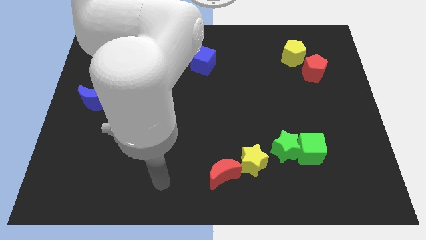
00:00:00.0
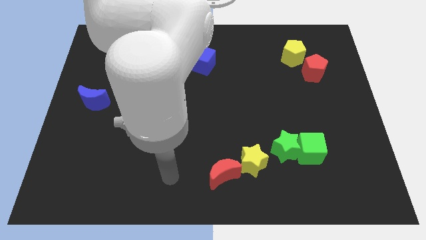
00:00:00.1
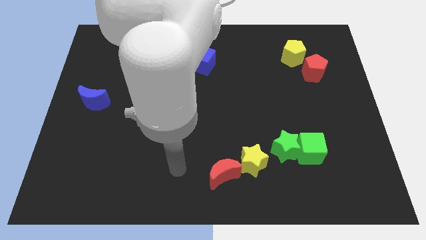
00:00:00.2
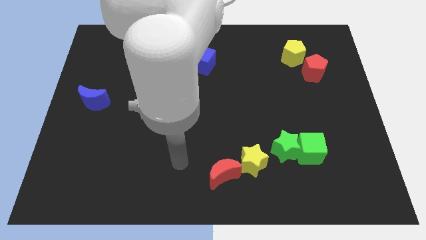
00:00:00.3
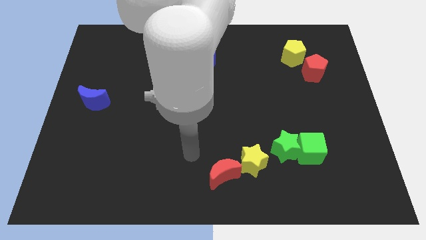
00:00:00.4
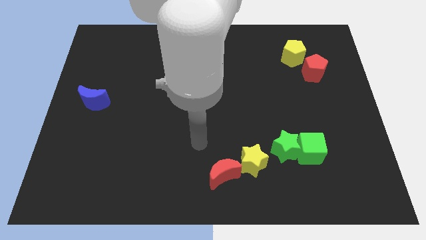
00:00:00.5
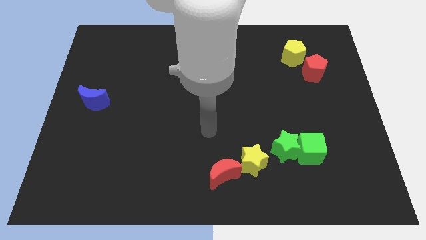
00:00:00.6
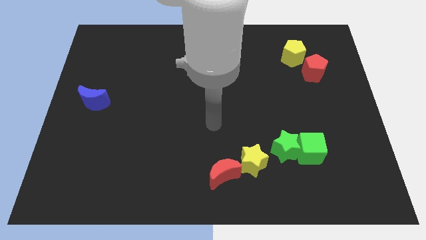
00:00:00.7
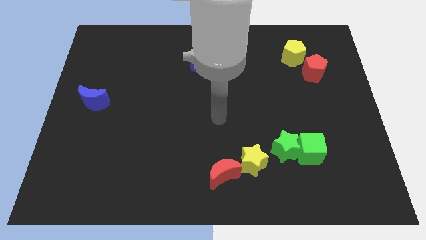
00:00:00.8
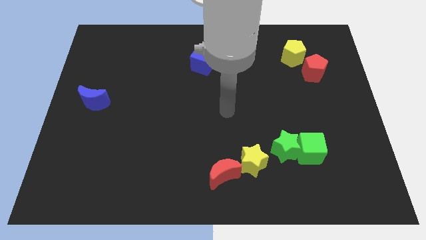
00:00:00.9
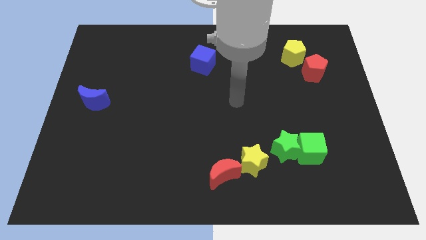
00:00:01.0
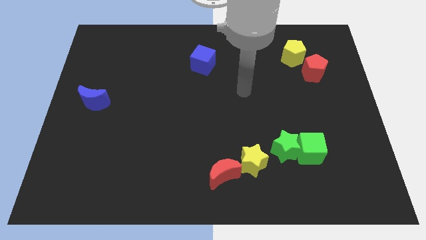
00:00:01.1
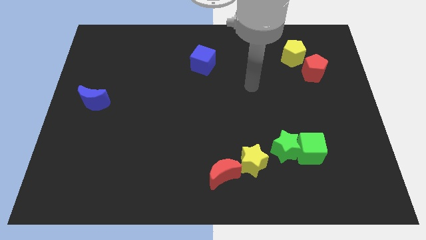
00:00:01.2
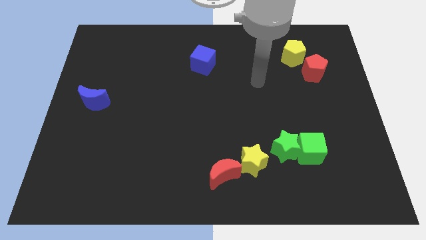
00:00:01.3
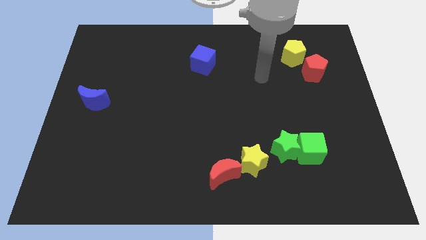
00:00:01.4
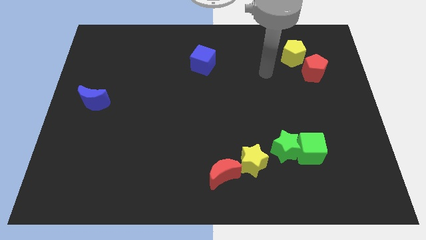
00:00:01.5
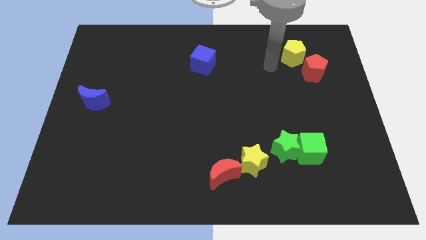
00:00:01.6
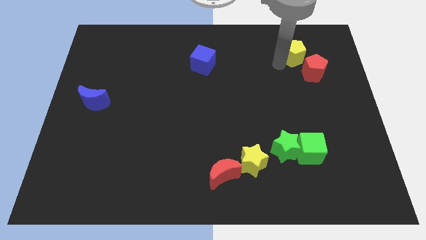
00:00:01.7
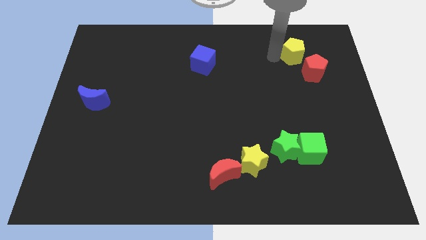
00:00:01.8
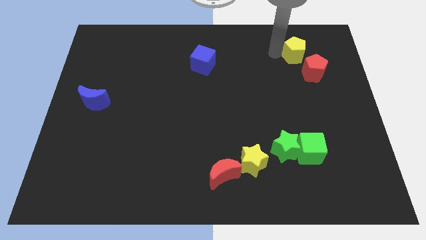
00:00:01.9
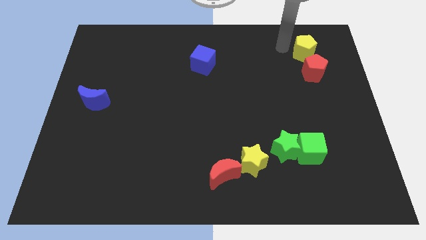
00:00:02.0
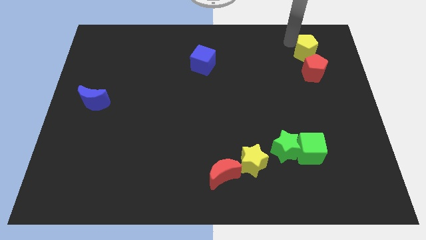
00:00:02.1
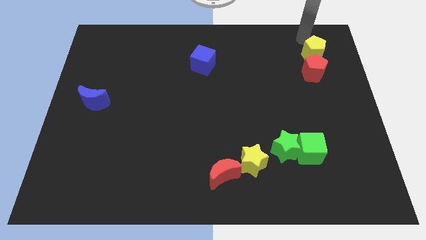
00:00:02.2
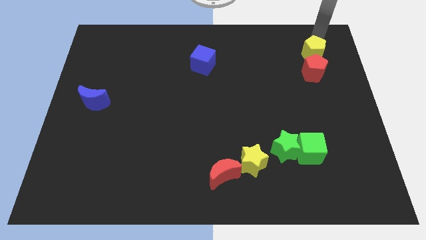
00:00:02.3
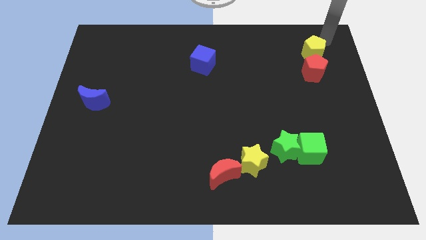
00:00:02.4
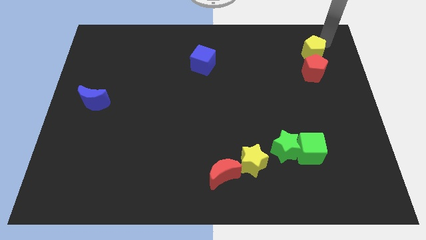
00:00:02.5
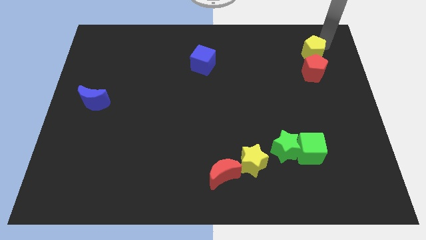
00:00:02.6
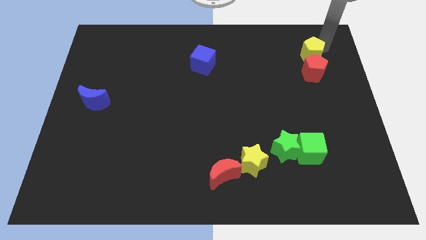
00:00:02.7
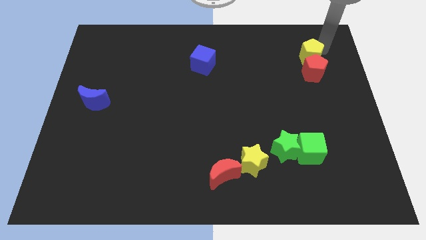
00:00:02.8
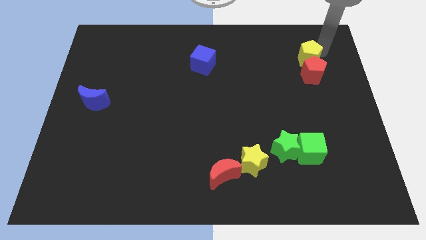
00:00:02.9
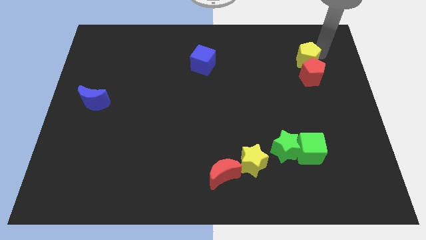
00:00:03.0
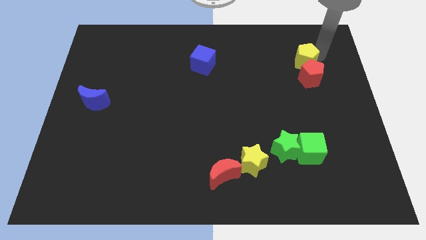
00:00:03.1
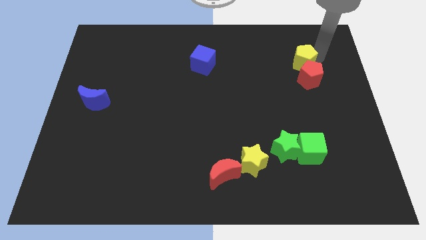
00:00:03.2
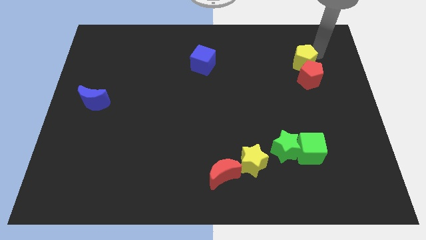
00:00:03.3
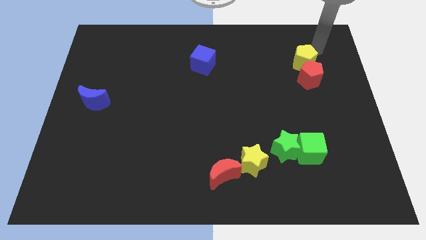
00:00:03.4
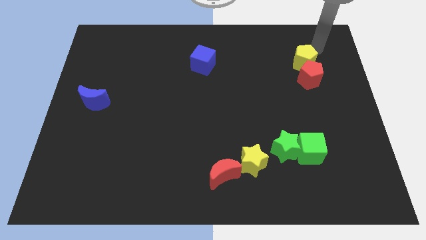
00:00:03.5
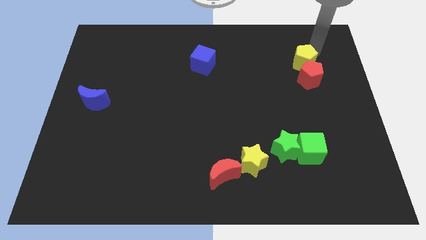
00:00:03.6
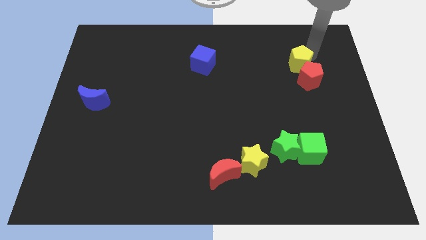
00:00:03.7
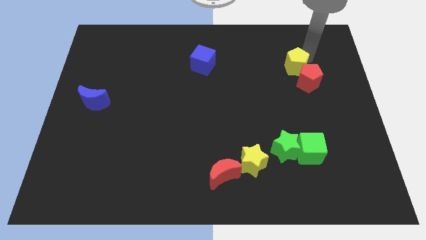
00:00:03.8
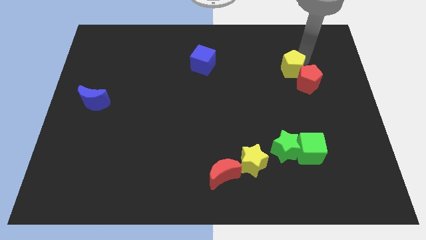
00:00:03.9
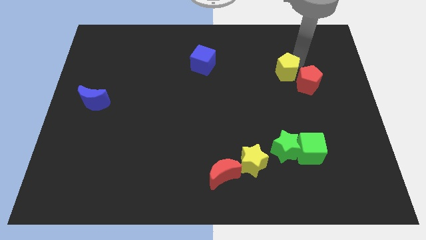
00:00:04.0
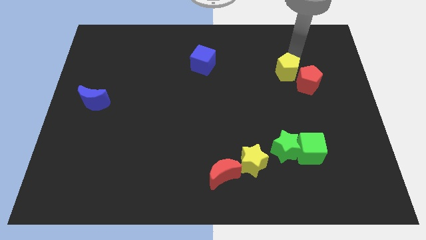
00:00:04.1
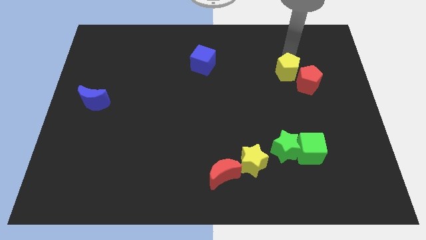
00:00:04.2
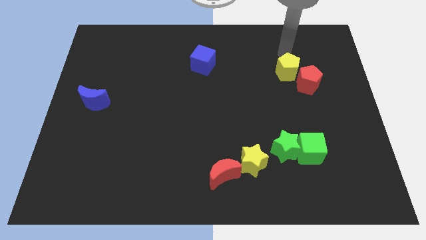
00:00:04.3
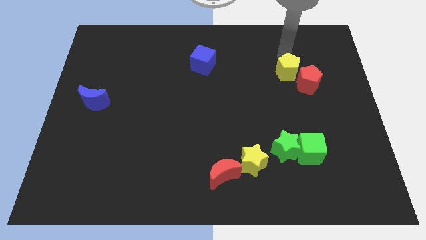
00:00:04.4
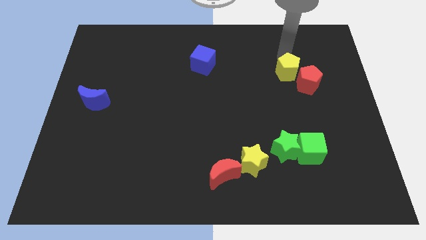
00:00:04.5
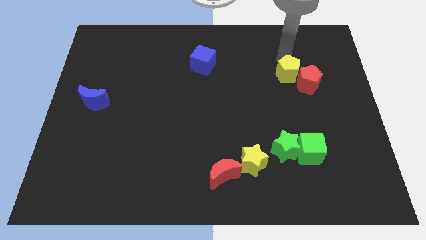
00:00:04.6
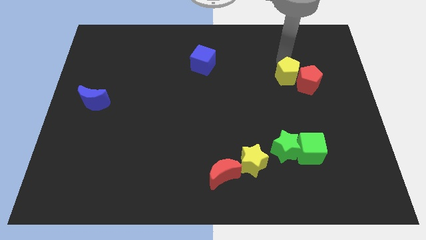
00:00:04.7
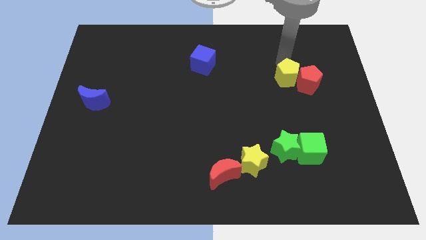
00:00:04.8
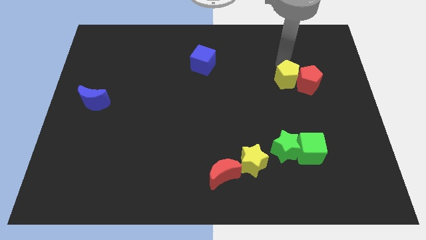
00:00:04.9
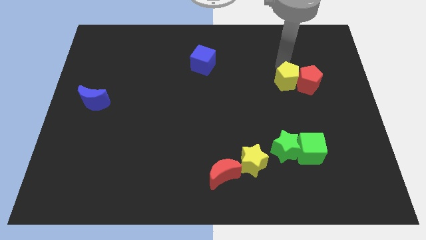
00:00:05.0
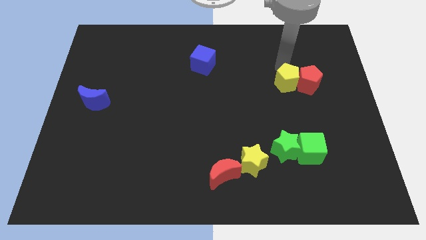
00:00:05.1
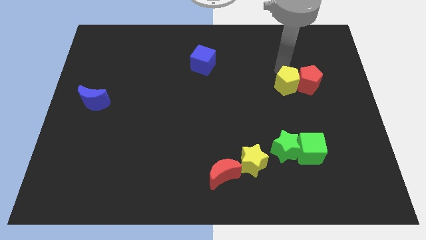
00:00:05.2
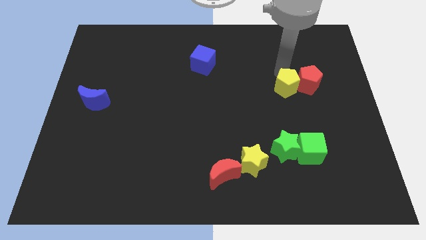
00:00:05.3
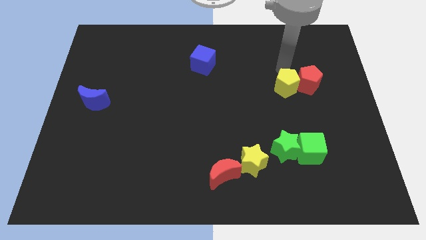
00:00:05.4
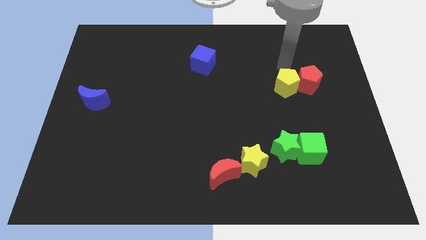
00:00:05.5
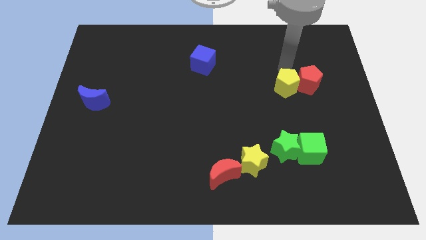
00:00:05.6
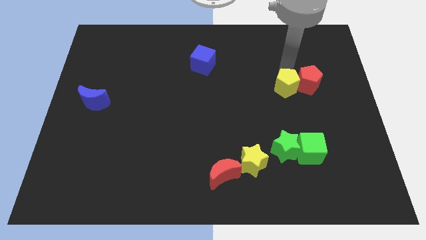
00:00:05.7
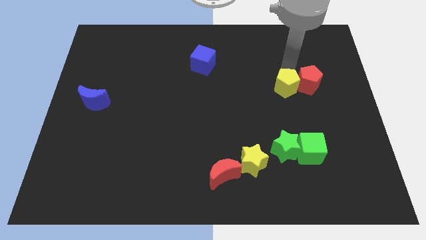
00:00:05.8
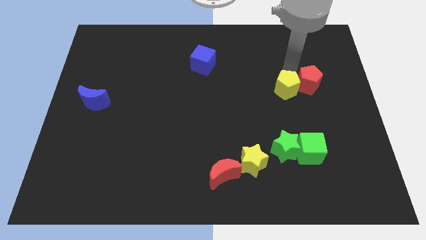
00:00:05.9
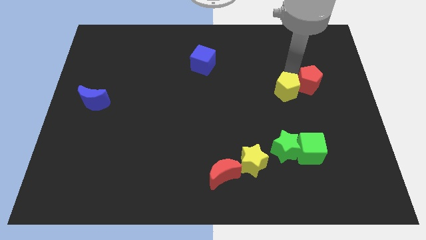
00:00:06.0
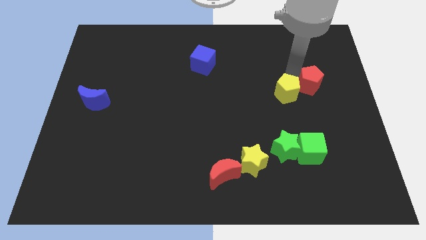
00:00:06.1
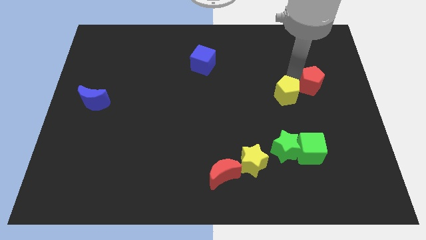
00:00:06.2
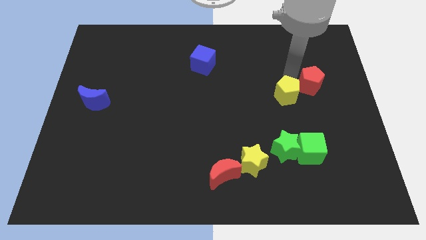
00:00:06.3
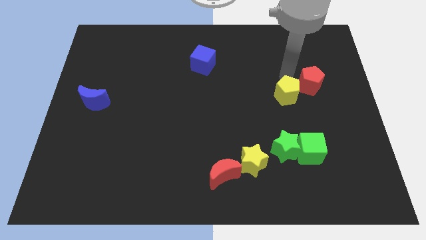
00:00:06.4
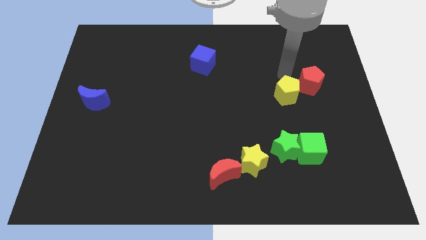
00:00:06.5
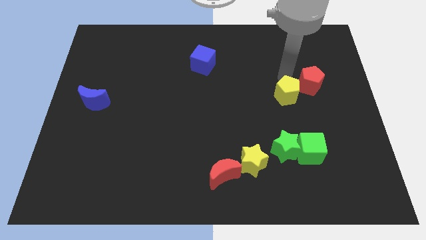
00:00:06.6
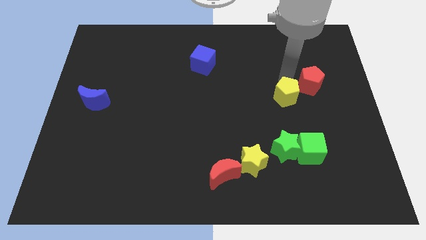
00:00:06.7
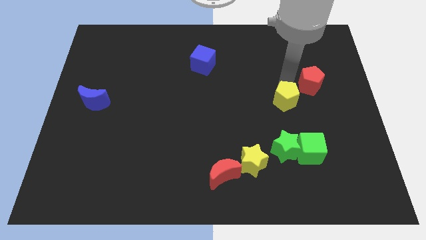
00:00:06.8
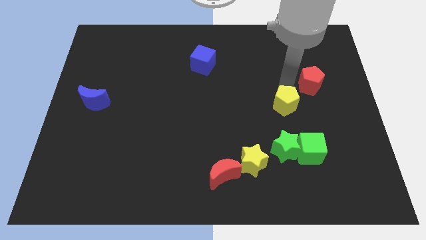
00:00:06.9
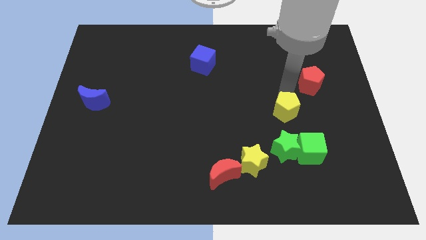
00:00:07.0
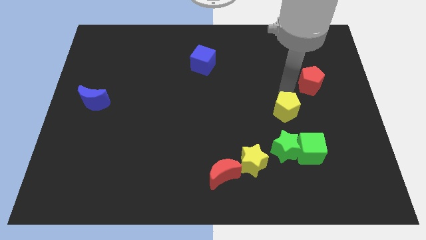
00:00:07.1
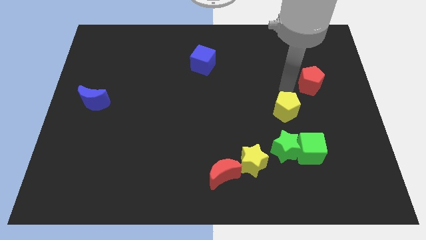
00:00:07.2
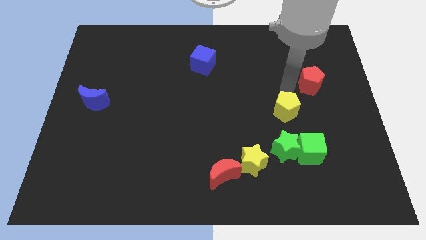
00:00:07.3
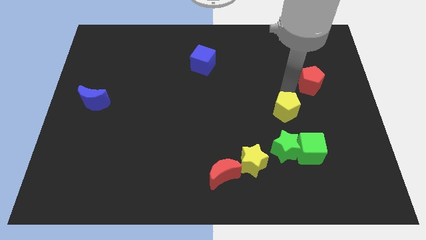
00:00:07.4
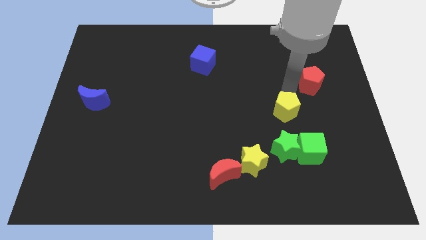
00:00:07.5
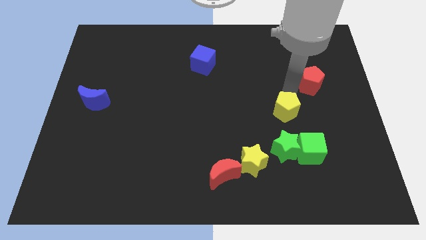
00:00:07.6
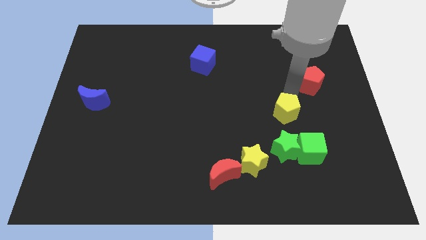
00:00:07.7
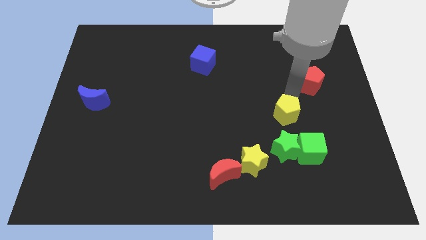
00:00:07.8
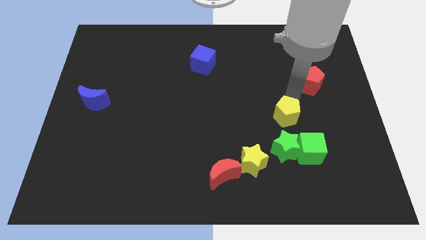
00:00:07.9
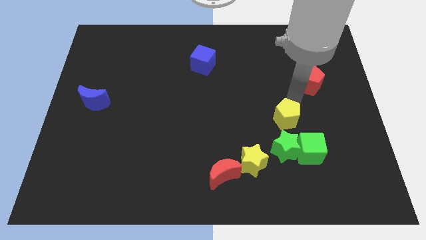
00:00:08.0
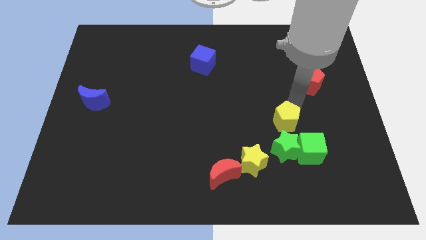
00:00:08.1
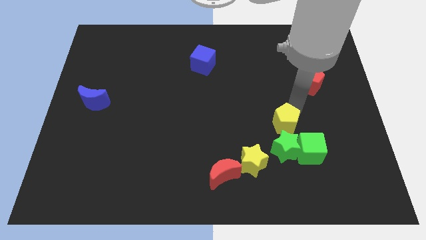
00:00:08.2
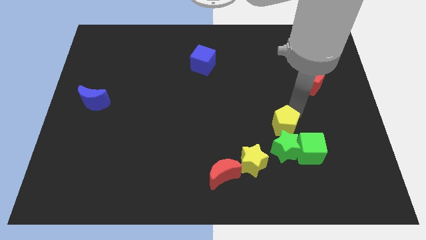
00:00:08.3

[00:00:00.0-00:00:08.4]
slide the yellow pentagon to the top right of the yellow star

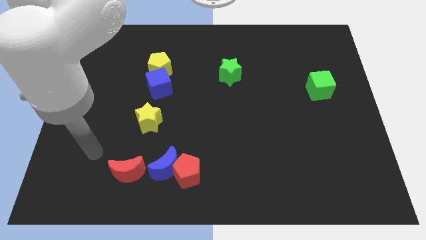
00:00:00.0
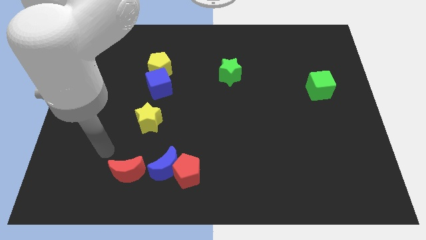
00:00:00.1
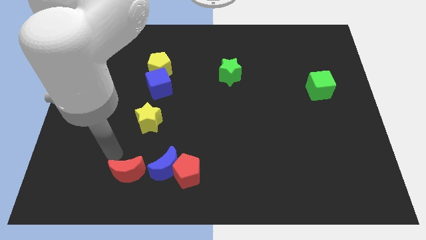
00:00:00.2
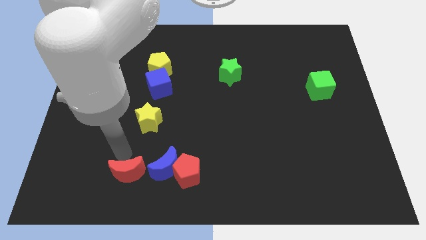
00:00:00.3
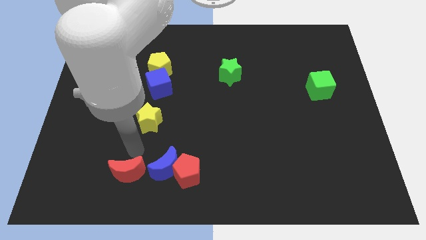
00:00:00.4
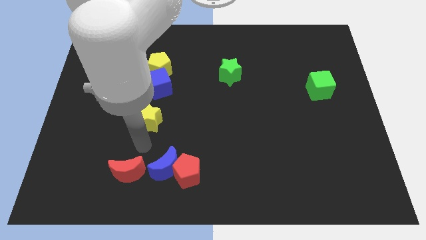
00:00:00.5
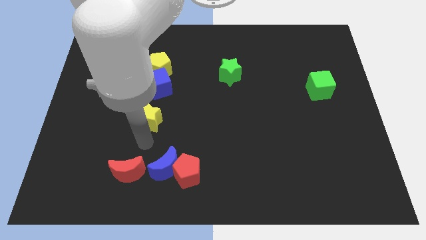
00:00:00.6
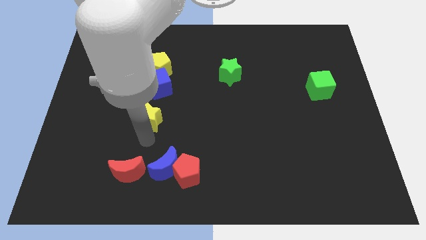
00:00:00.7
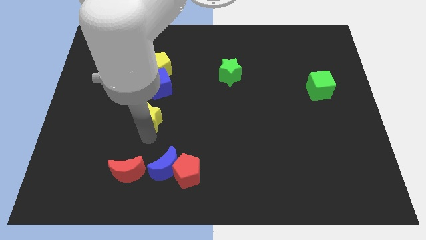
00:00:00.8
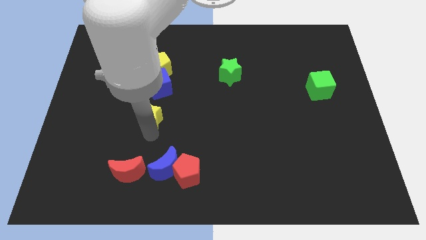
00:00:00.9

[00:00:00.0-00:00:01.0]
push the yellow star to the bottom of the yellow pentagon
